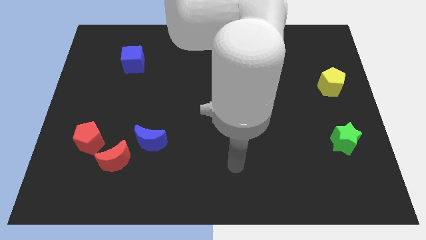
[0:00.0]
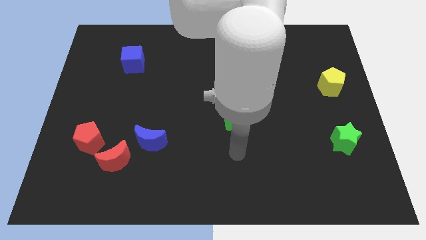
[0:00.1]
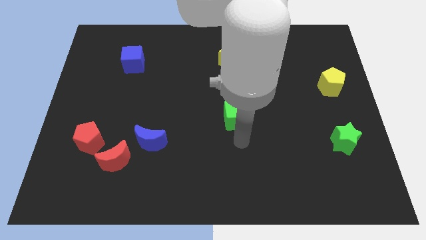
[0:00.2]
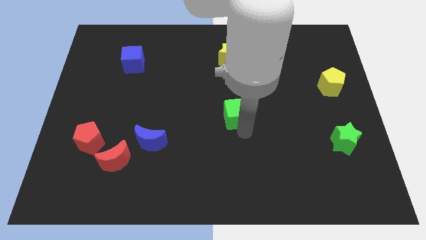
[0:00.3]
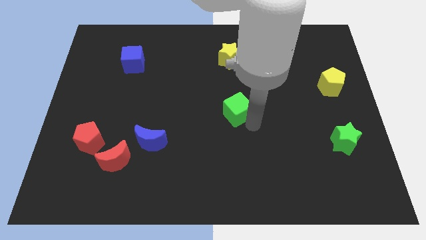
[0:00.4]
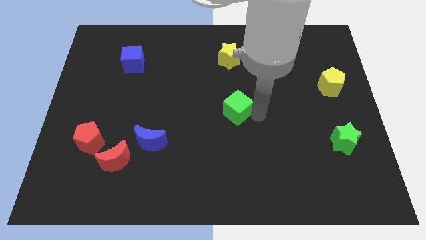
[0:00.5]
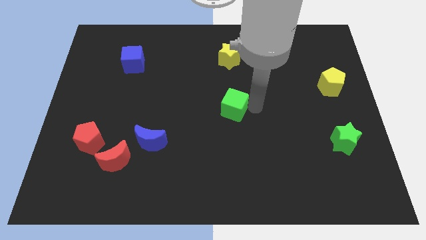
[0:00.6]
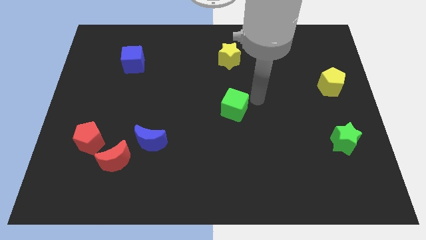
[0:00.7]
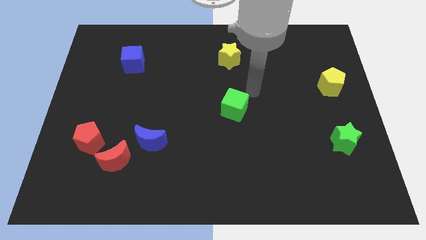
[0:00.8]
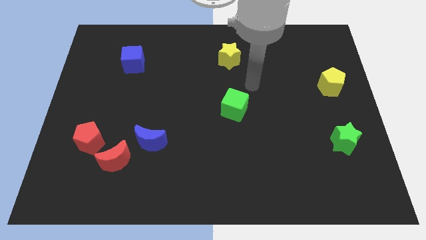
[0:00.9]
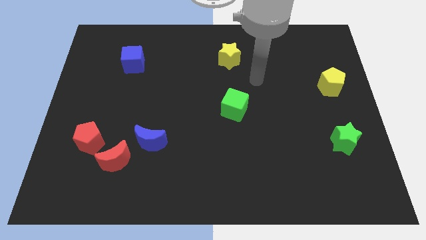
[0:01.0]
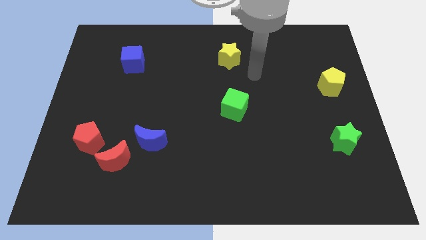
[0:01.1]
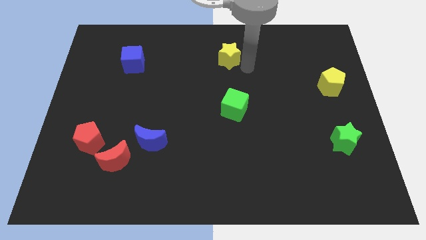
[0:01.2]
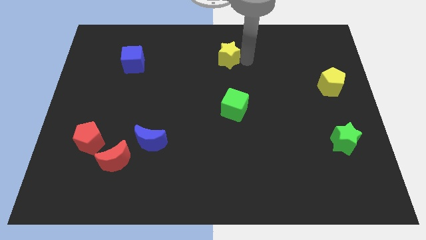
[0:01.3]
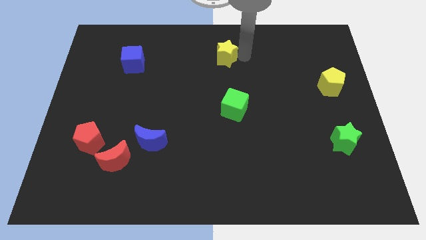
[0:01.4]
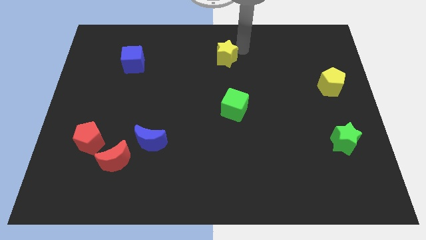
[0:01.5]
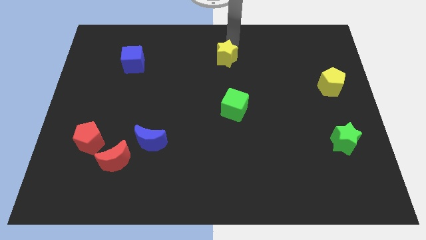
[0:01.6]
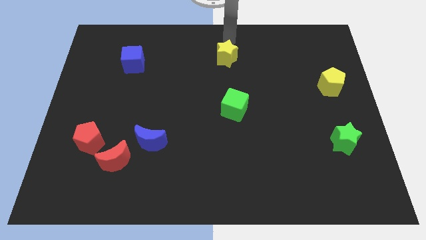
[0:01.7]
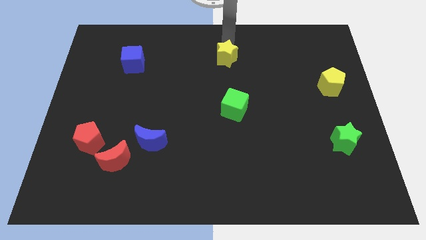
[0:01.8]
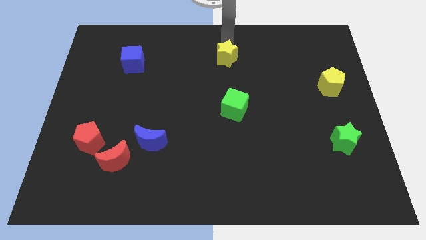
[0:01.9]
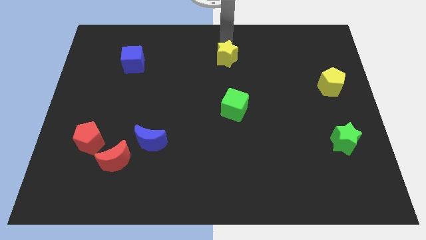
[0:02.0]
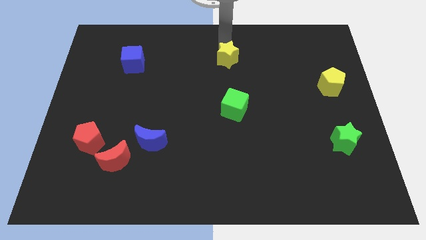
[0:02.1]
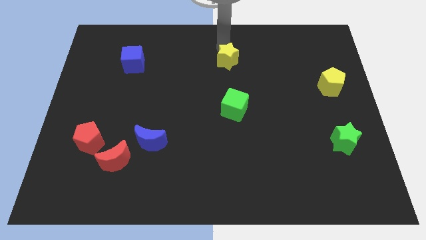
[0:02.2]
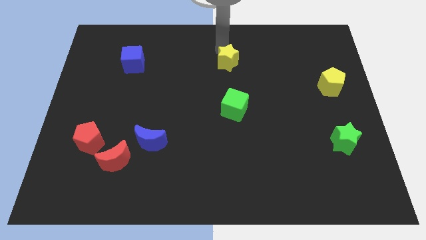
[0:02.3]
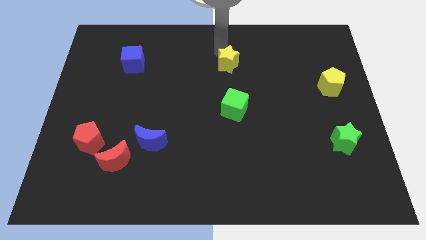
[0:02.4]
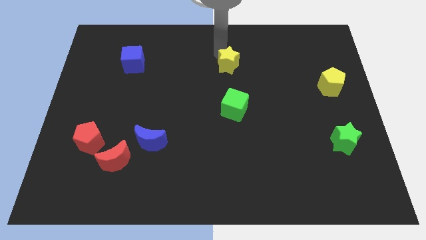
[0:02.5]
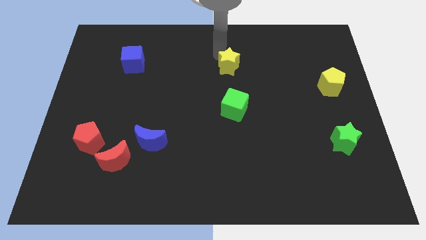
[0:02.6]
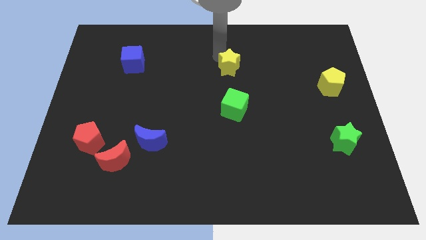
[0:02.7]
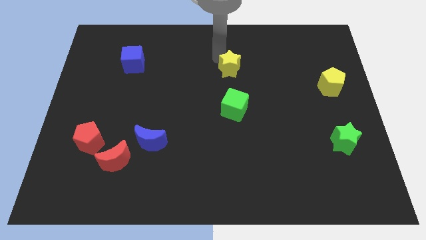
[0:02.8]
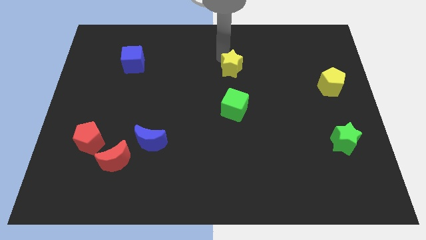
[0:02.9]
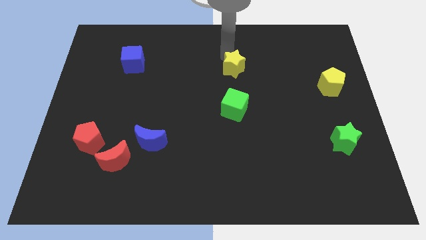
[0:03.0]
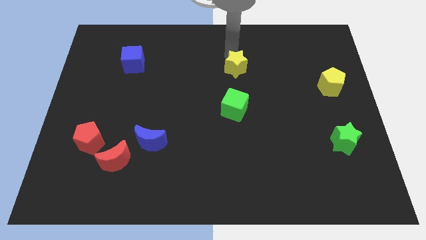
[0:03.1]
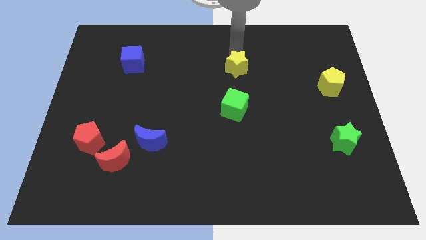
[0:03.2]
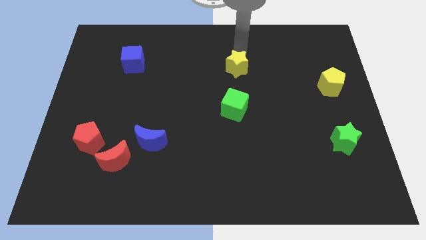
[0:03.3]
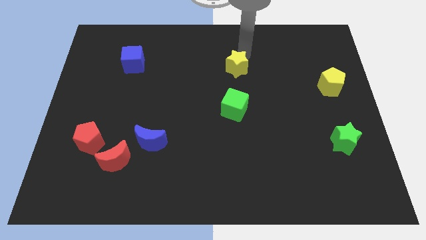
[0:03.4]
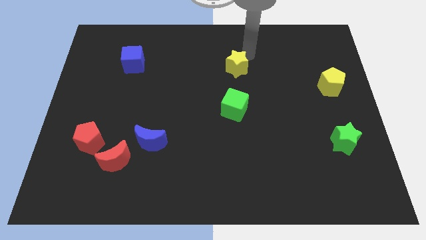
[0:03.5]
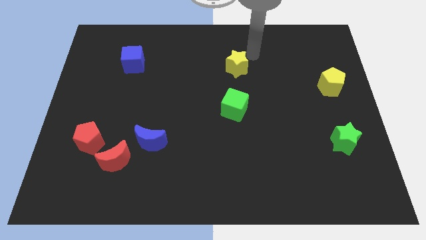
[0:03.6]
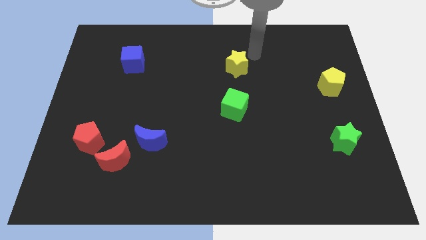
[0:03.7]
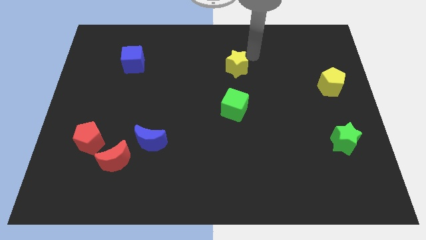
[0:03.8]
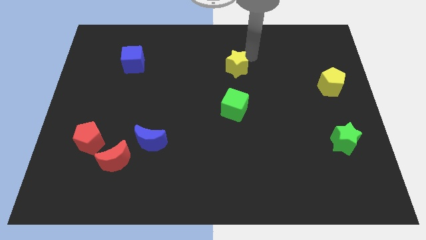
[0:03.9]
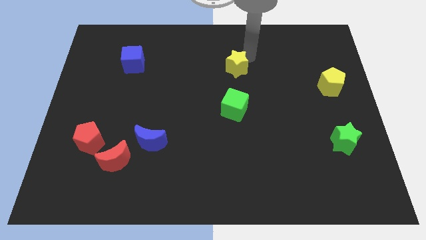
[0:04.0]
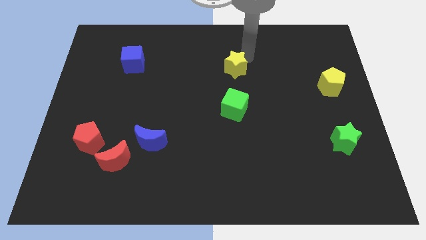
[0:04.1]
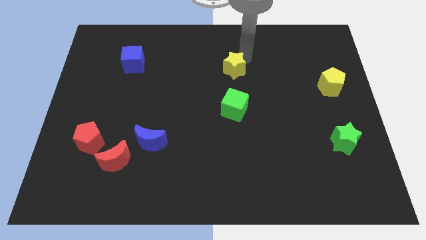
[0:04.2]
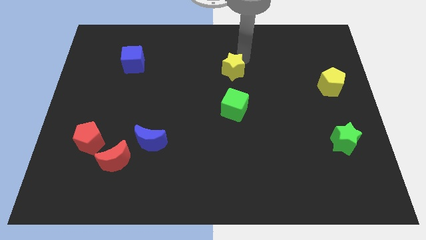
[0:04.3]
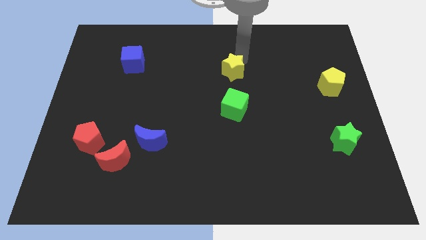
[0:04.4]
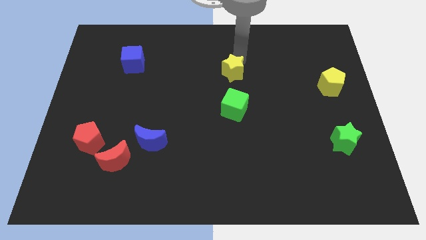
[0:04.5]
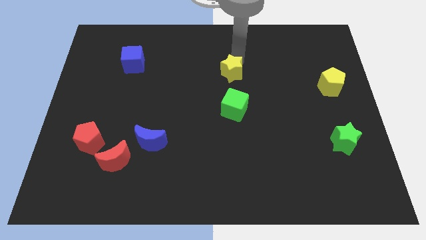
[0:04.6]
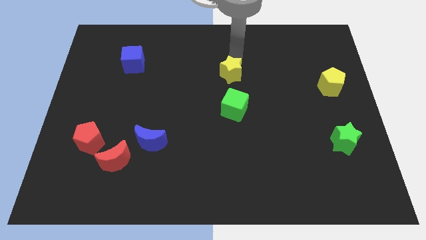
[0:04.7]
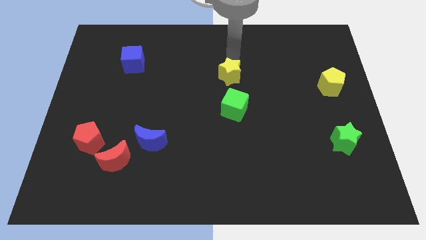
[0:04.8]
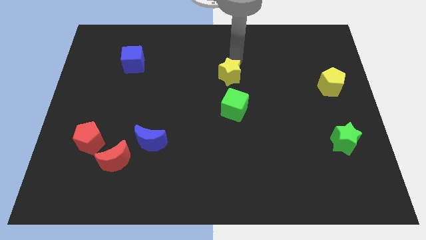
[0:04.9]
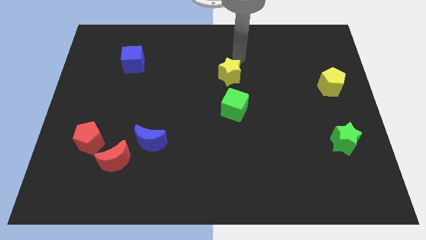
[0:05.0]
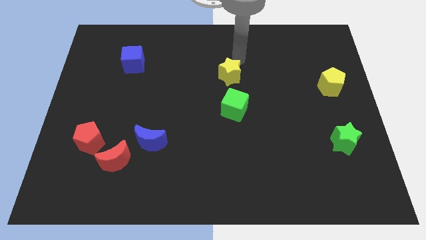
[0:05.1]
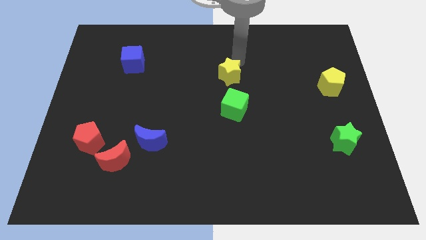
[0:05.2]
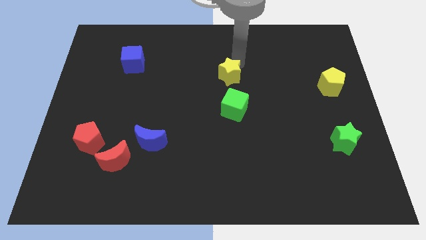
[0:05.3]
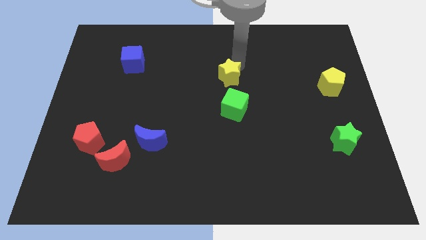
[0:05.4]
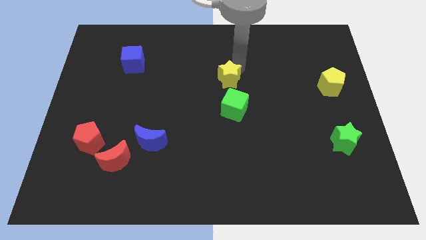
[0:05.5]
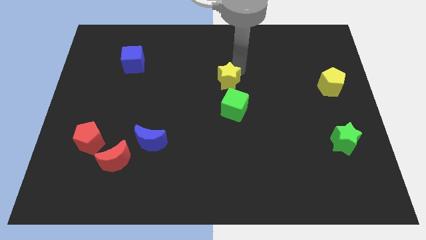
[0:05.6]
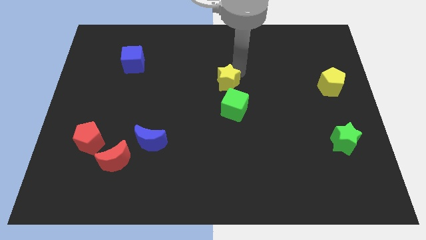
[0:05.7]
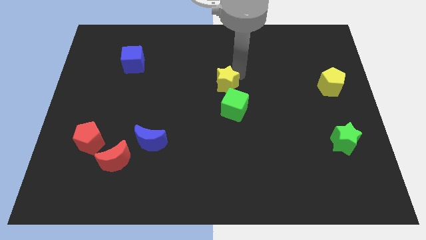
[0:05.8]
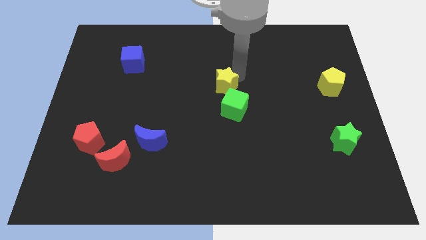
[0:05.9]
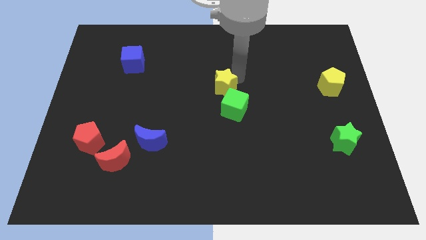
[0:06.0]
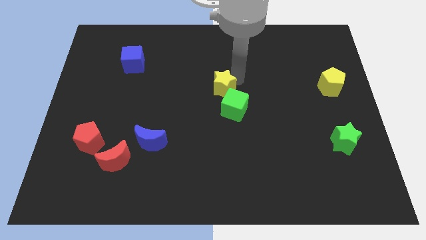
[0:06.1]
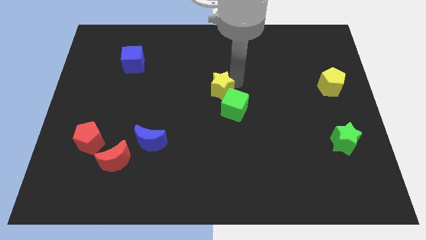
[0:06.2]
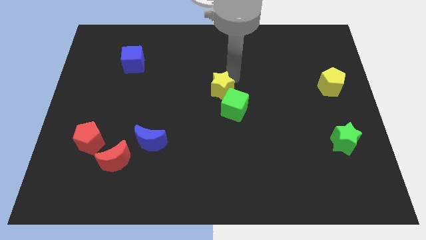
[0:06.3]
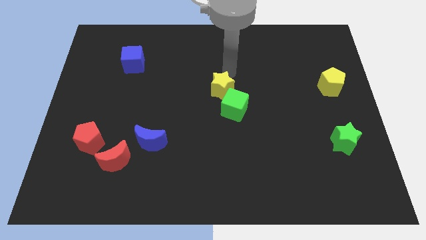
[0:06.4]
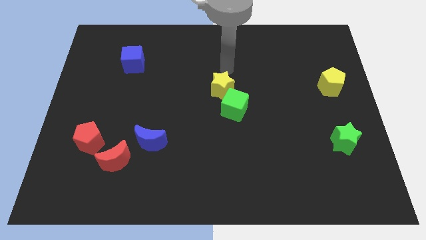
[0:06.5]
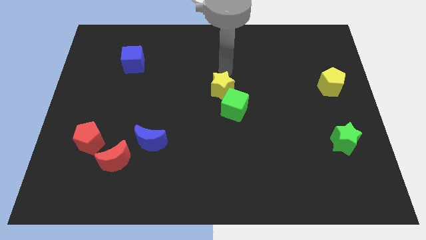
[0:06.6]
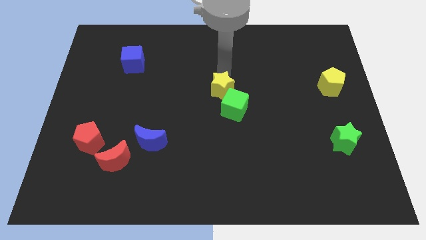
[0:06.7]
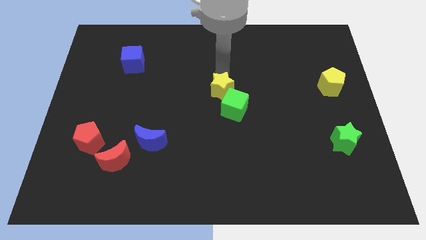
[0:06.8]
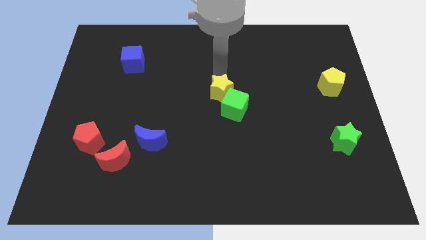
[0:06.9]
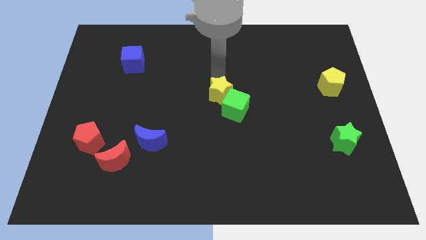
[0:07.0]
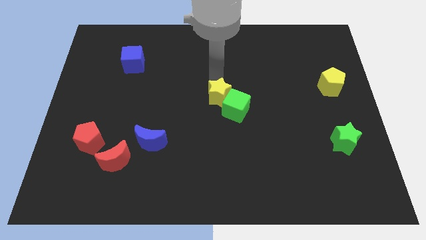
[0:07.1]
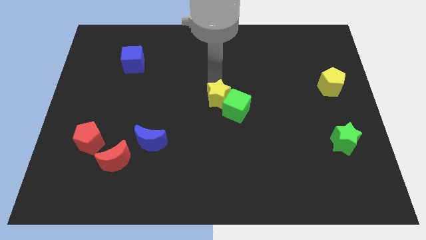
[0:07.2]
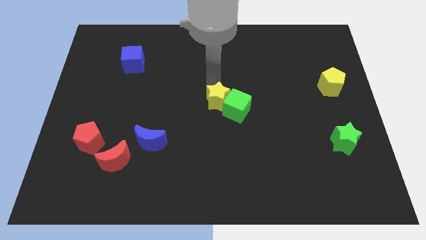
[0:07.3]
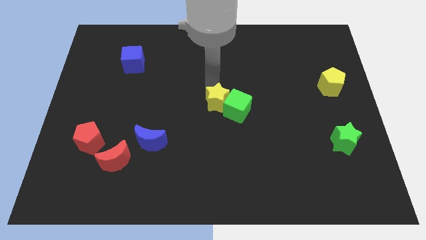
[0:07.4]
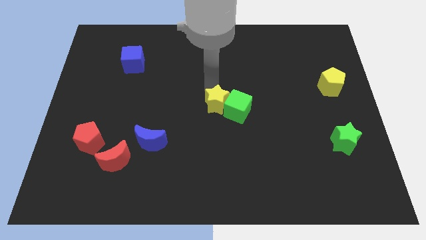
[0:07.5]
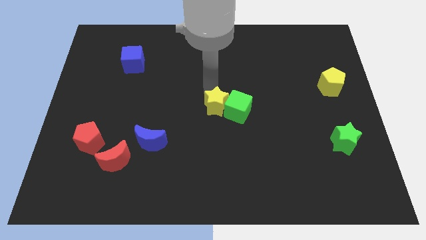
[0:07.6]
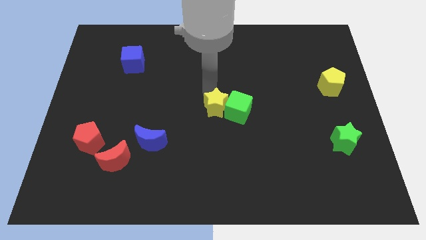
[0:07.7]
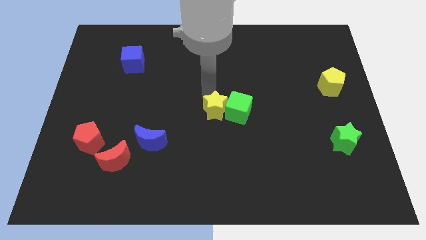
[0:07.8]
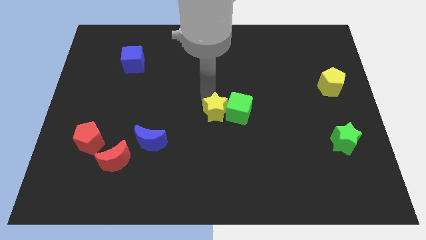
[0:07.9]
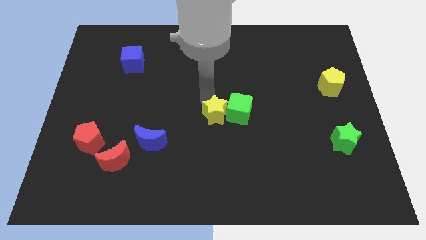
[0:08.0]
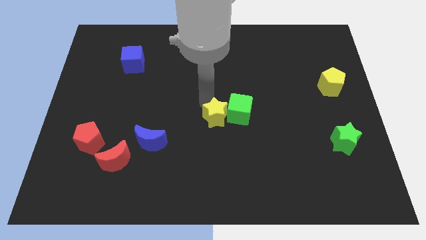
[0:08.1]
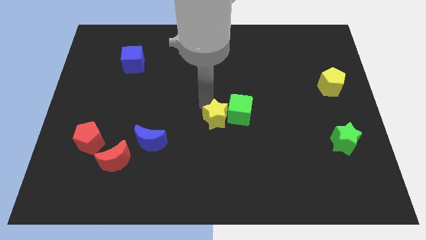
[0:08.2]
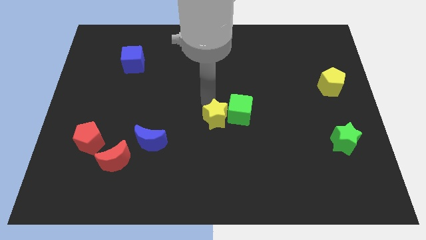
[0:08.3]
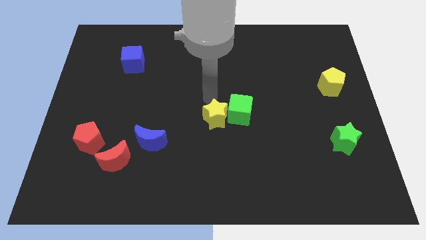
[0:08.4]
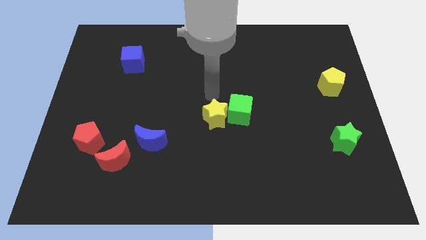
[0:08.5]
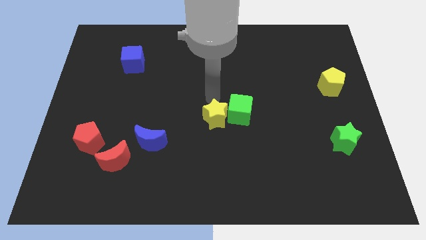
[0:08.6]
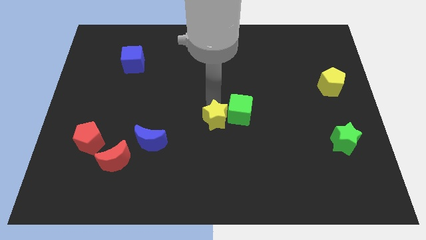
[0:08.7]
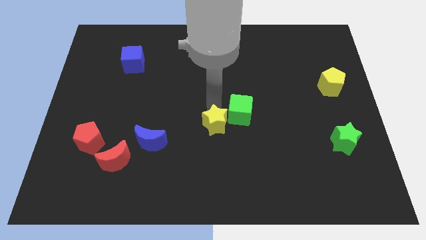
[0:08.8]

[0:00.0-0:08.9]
slide the yellow star downwards
